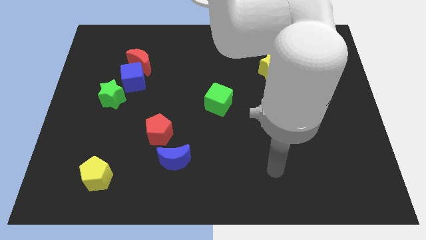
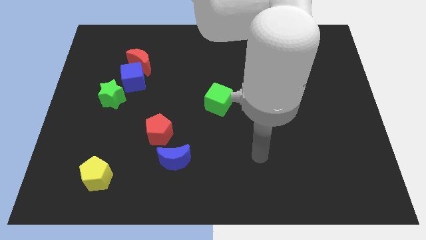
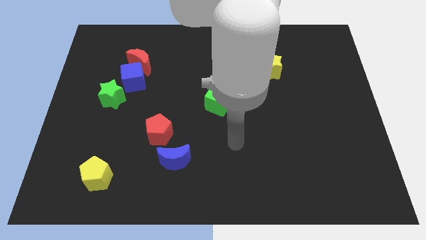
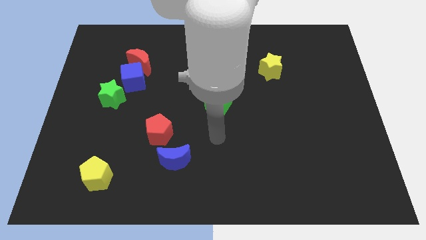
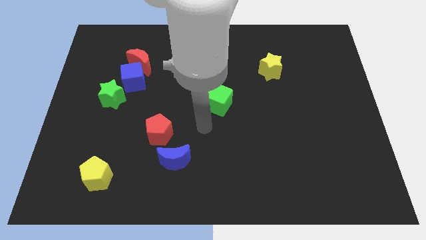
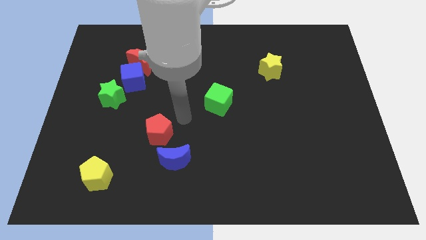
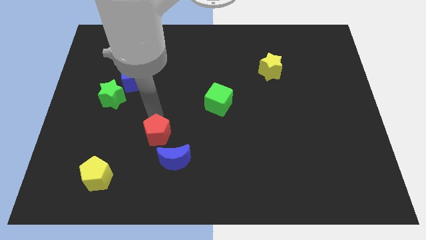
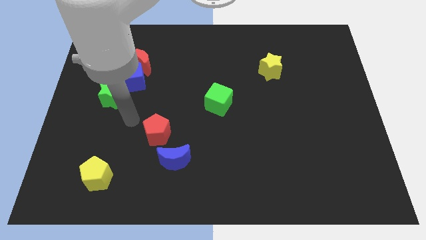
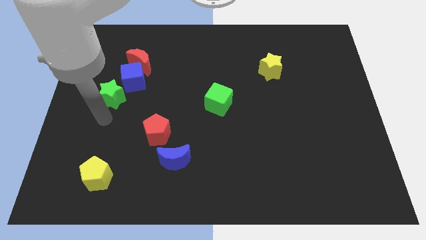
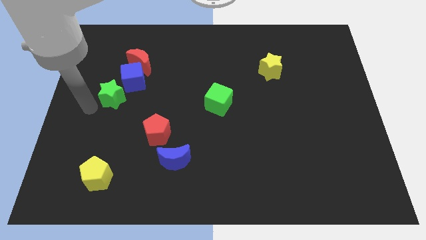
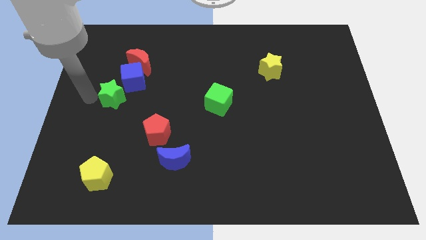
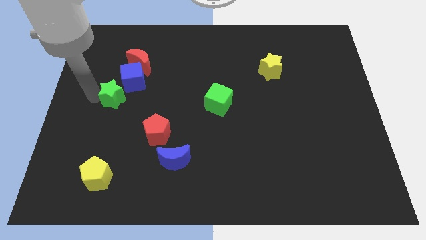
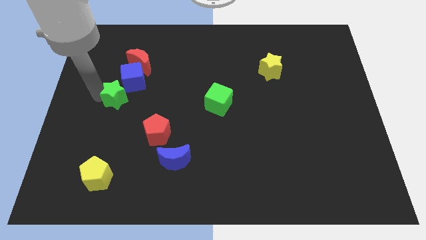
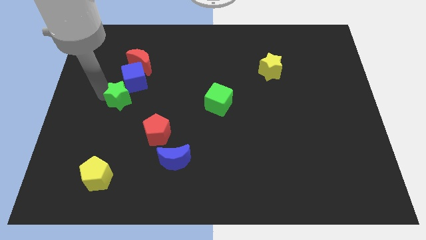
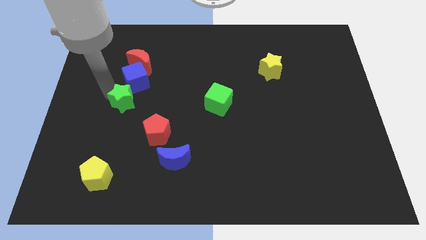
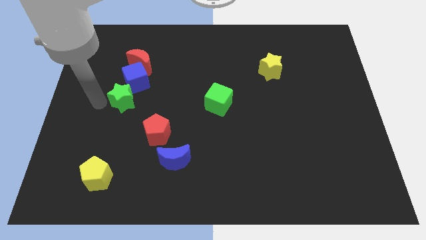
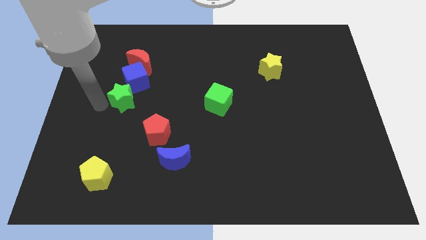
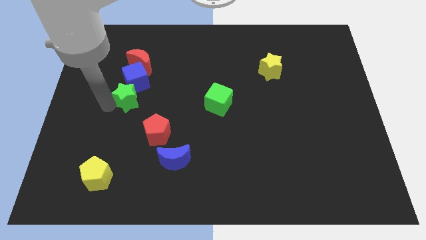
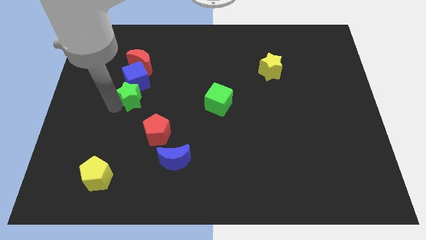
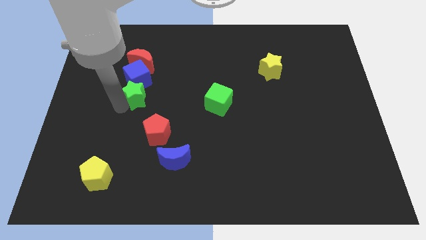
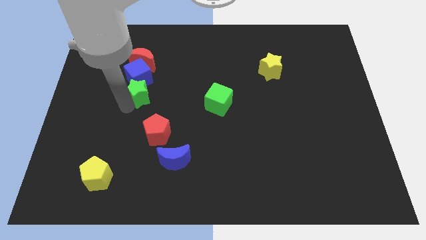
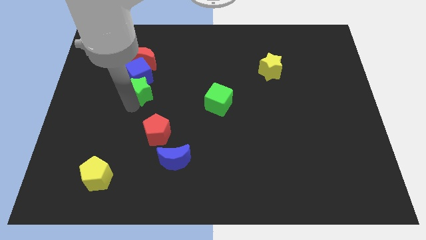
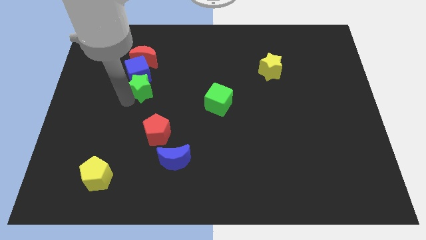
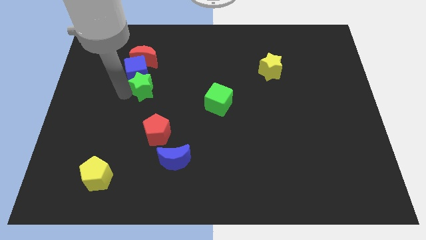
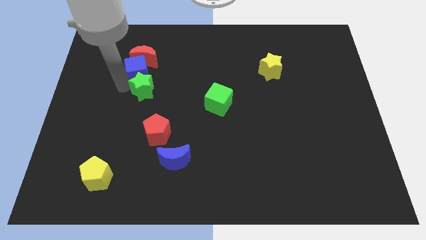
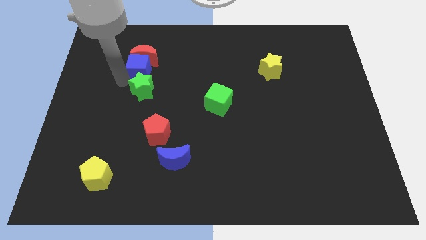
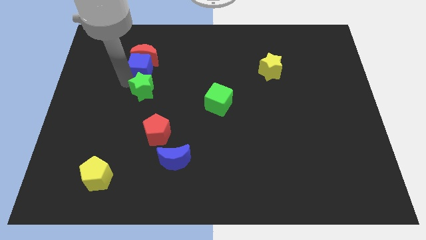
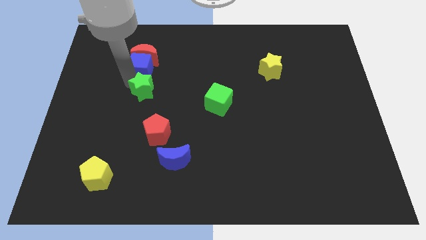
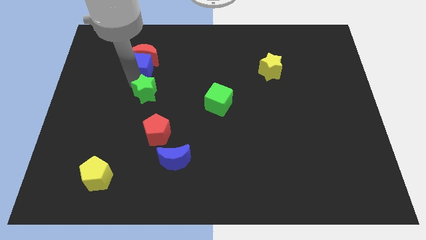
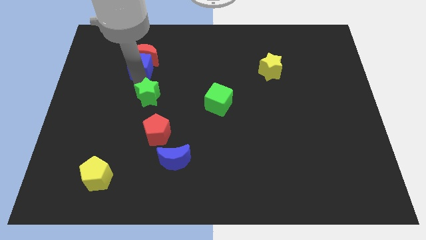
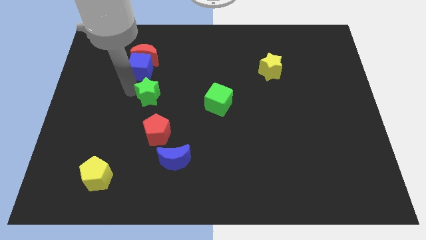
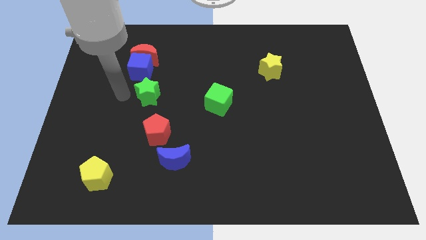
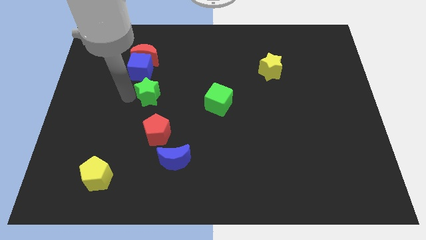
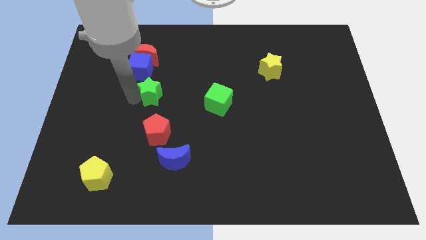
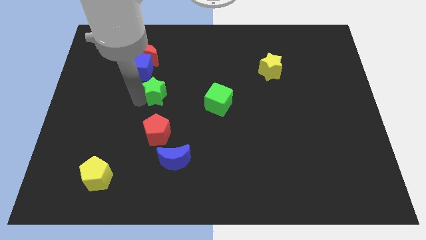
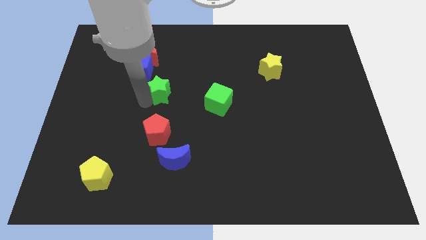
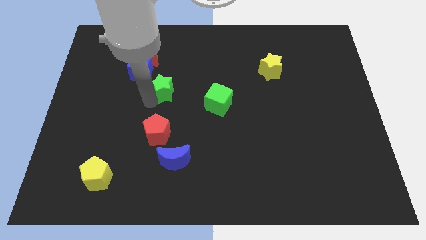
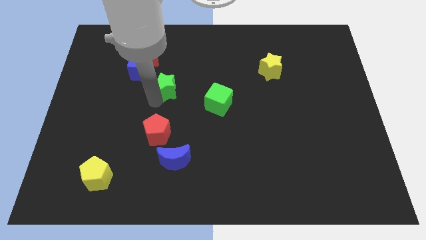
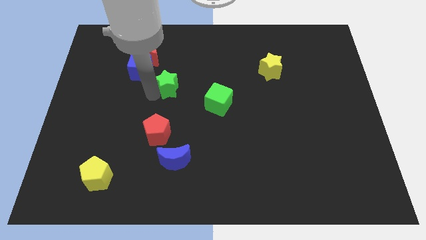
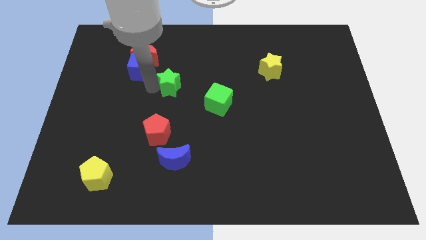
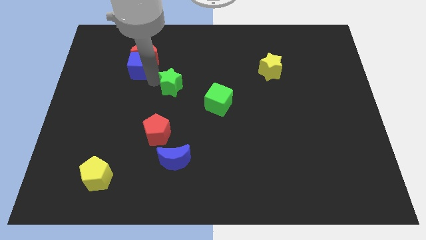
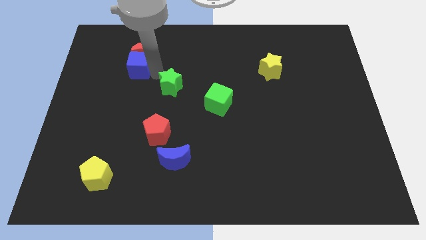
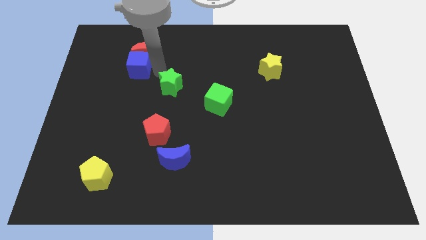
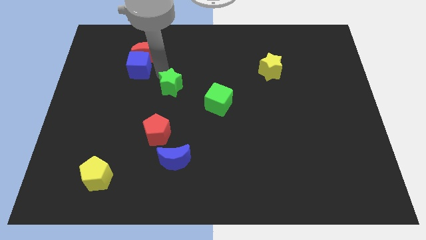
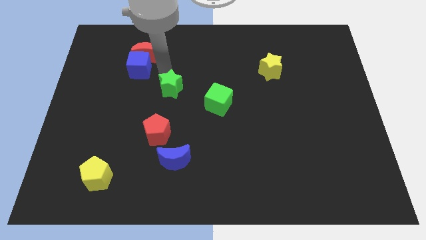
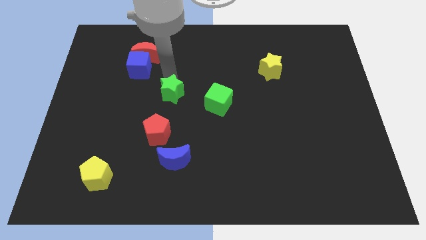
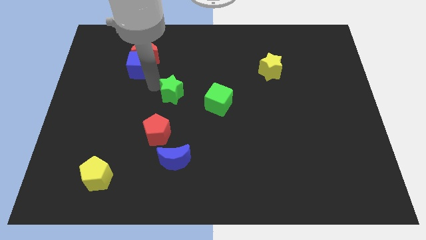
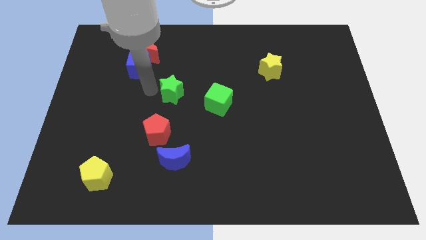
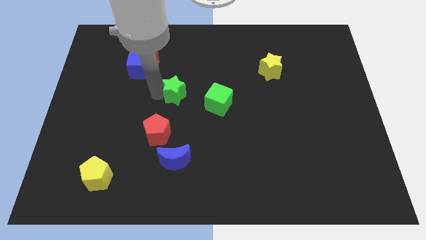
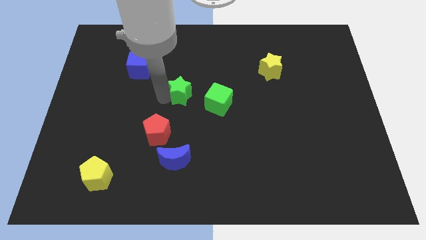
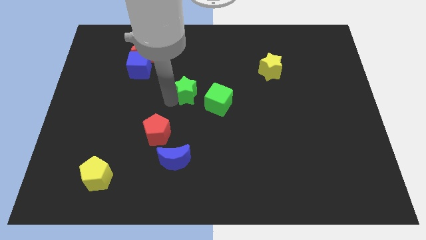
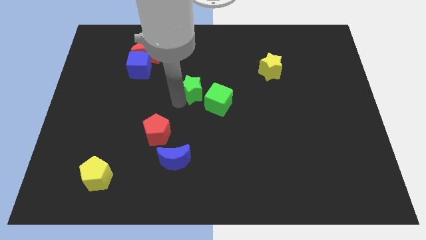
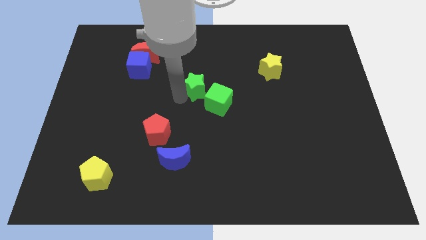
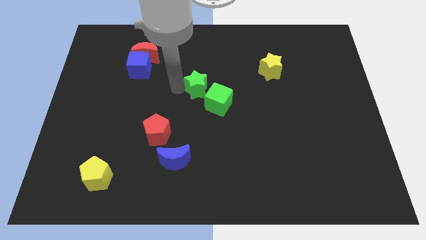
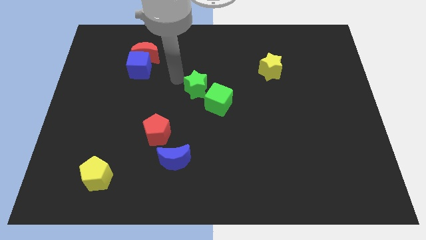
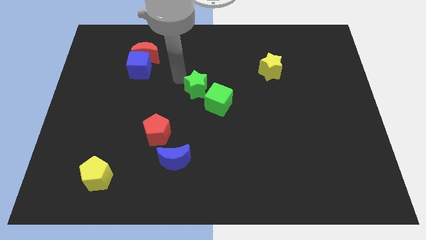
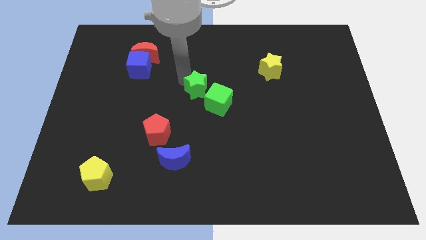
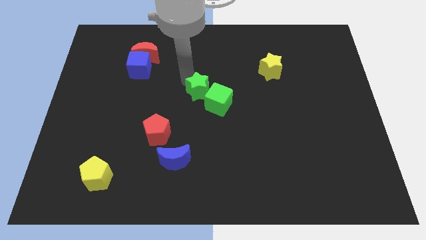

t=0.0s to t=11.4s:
slide the green star next to the green cube

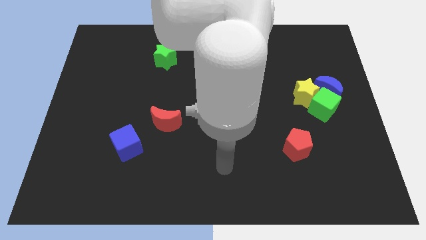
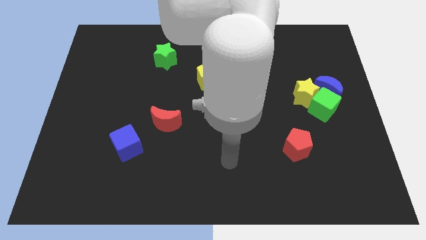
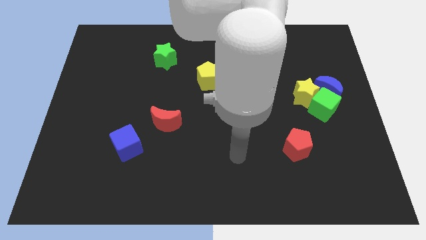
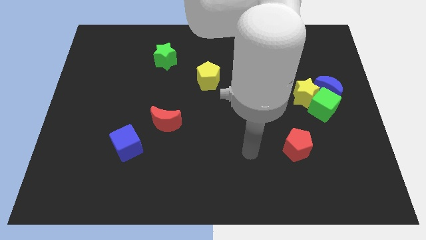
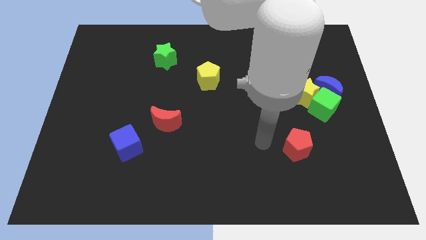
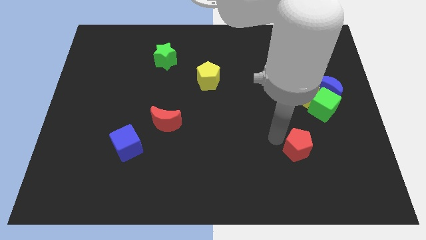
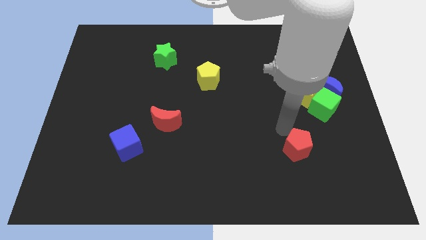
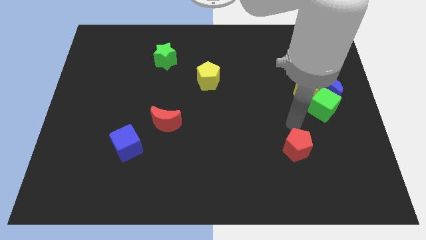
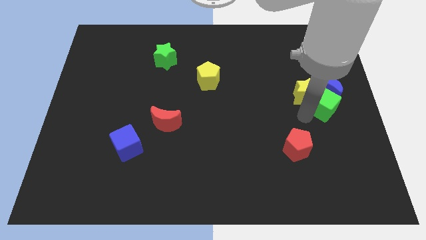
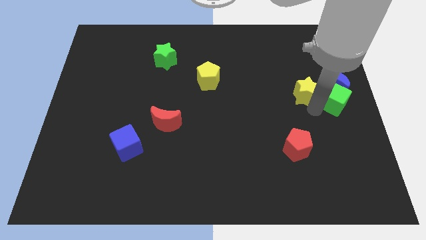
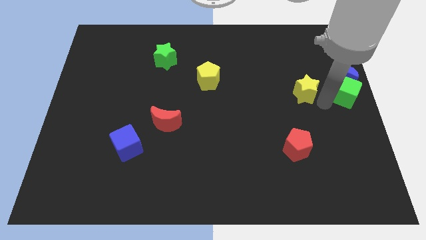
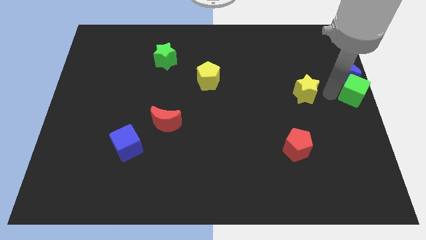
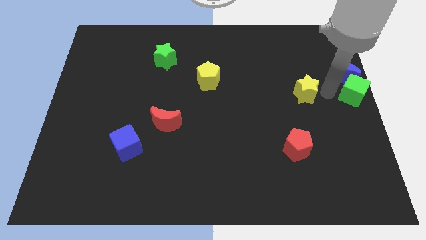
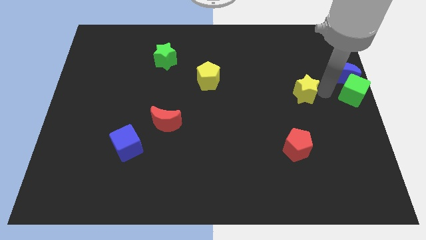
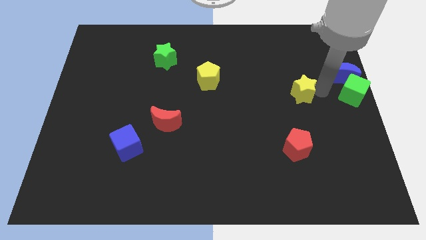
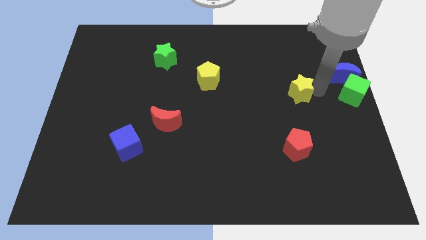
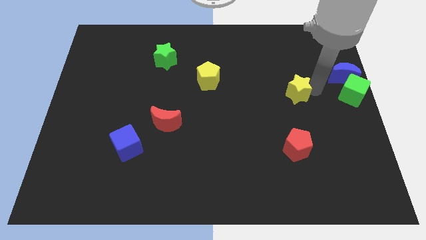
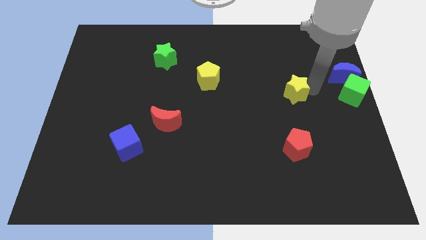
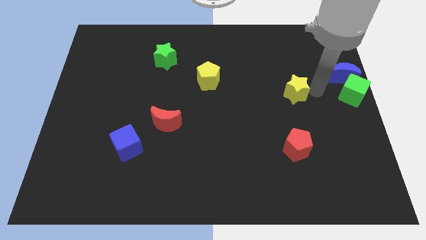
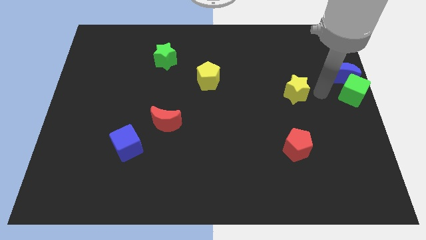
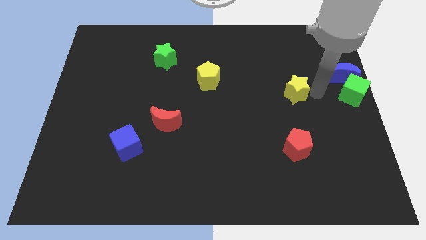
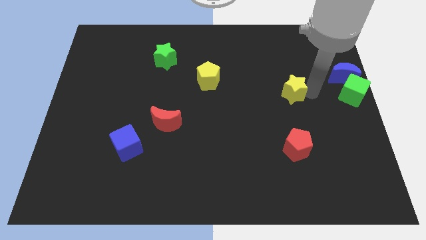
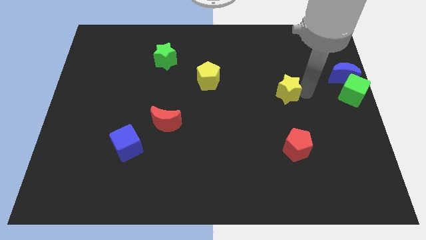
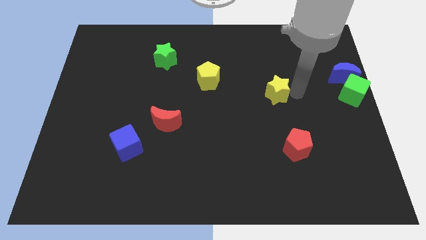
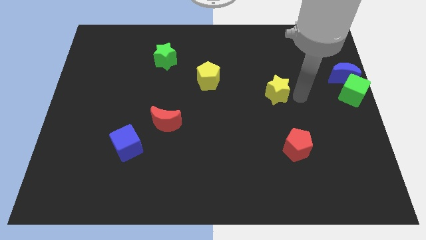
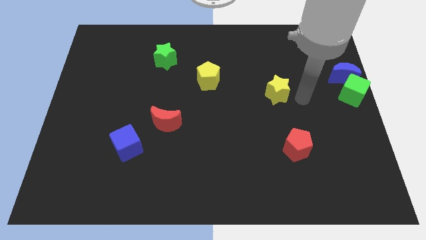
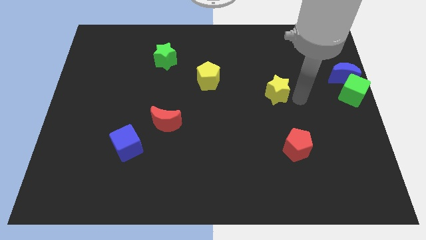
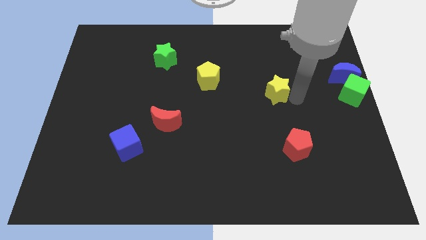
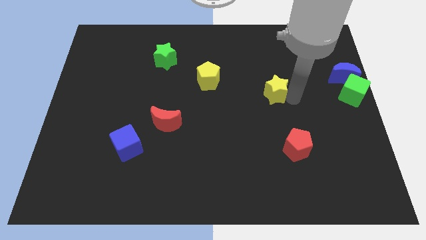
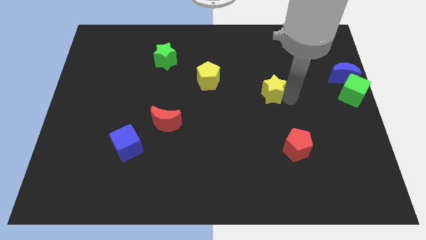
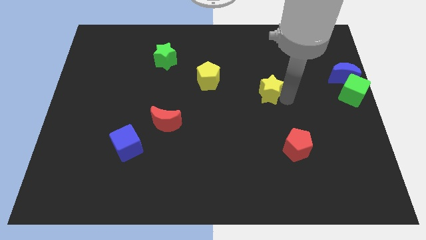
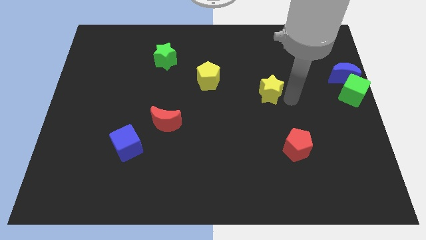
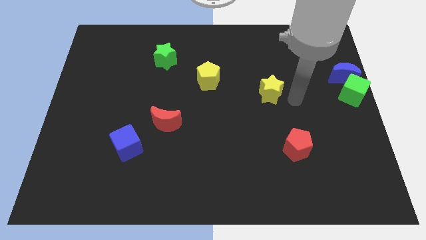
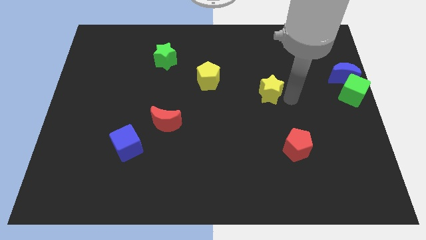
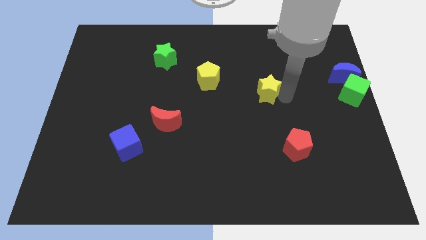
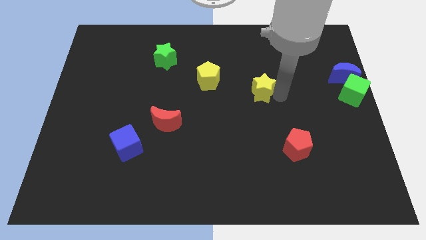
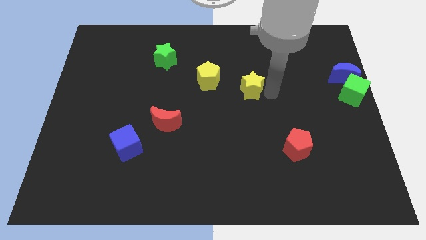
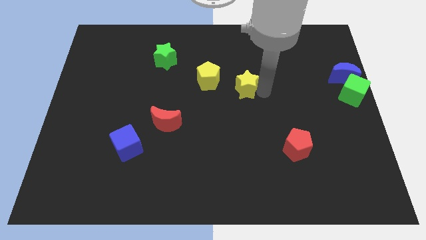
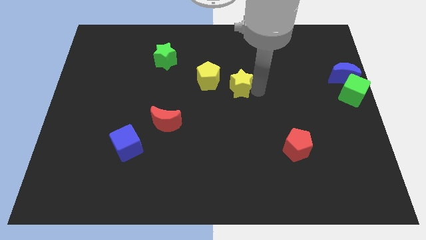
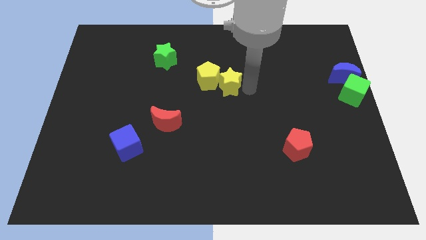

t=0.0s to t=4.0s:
move the yellow star close to the yellow pentagon
